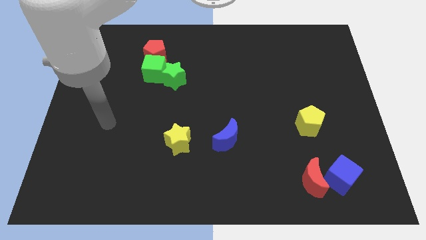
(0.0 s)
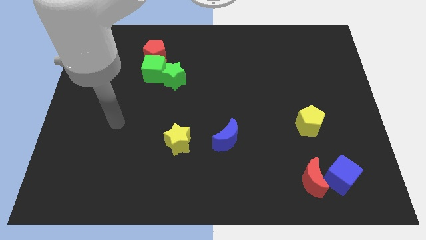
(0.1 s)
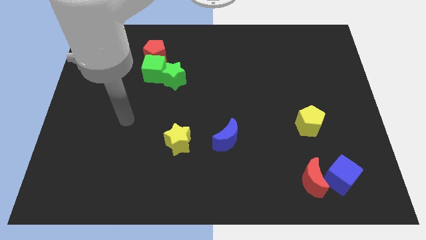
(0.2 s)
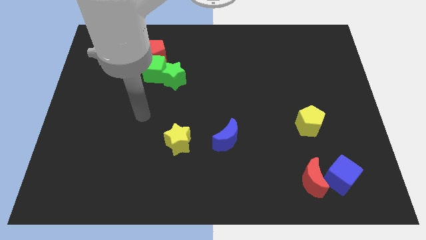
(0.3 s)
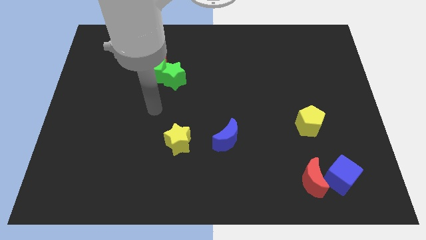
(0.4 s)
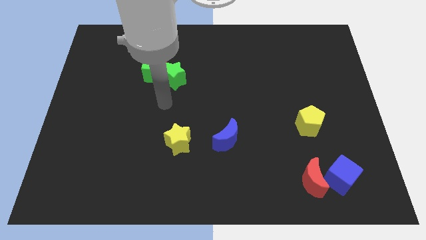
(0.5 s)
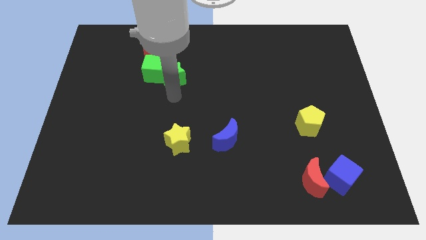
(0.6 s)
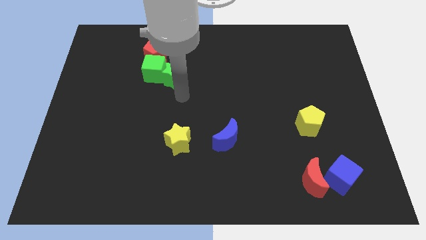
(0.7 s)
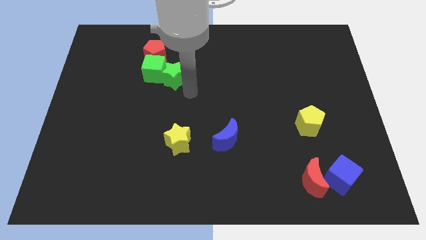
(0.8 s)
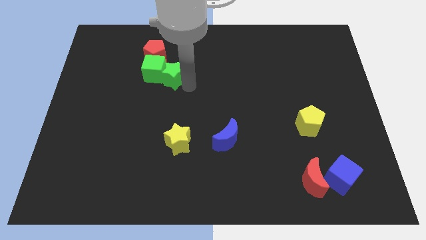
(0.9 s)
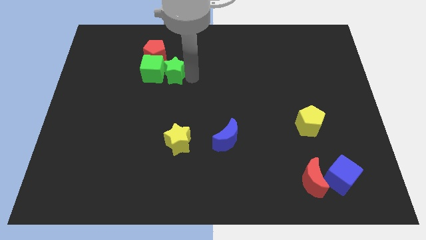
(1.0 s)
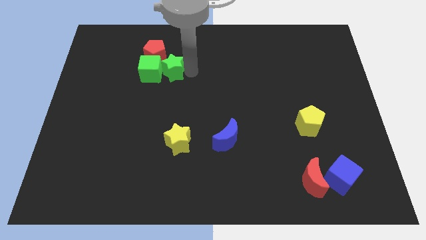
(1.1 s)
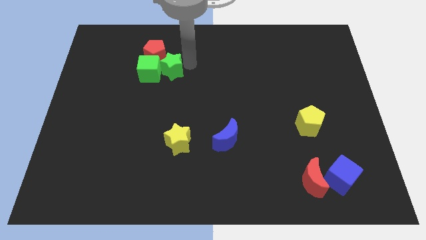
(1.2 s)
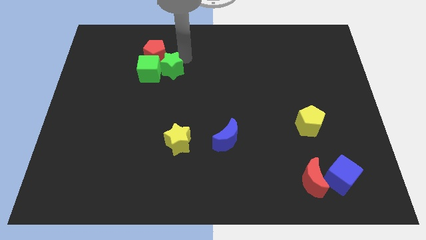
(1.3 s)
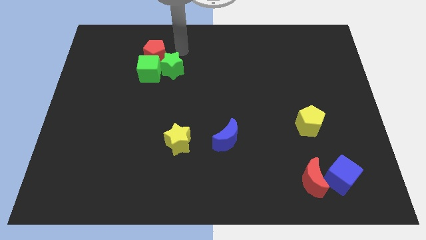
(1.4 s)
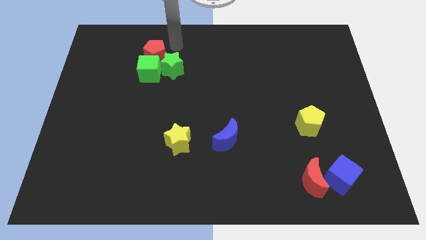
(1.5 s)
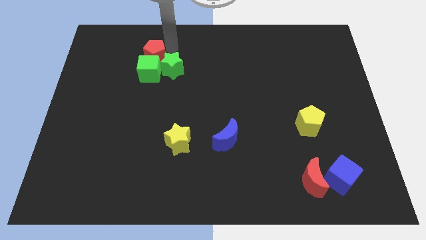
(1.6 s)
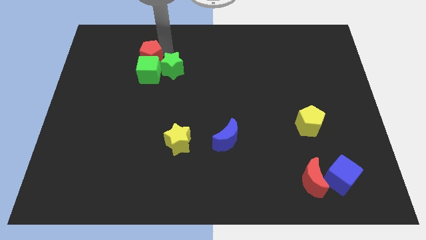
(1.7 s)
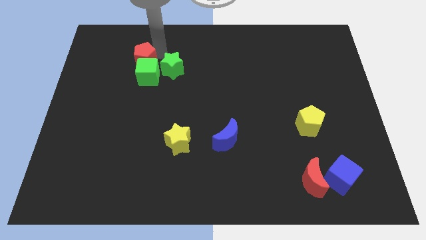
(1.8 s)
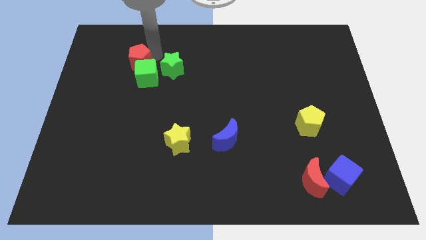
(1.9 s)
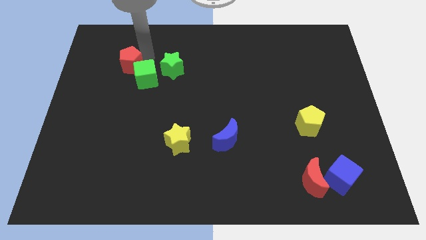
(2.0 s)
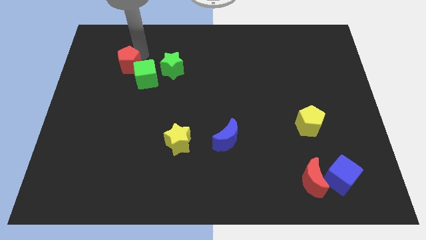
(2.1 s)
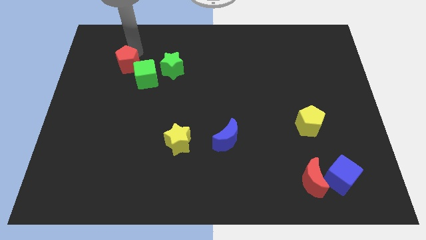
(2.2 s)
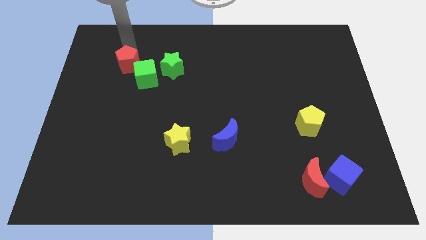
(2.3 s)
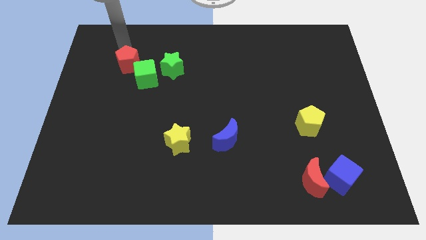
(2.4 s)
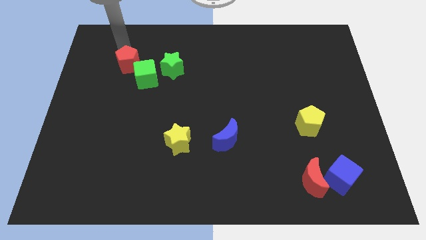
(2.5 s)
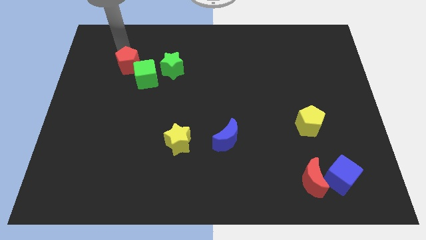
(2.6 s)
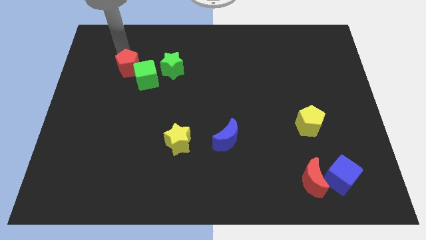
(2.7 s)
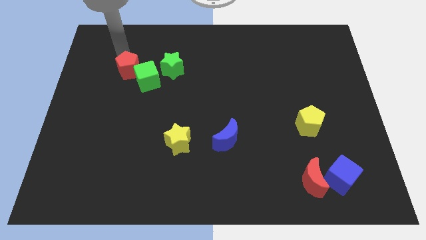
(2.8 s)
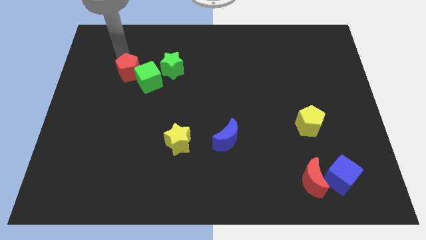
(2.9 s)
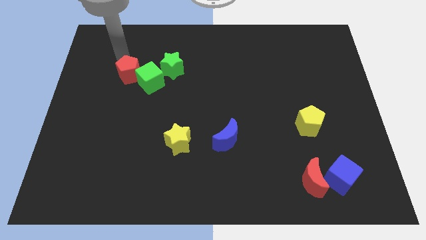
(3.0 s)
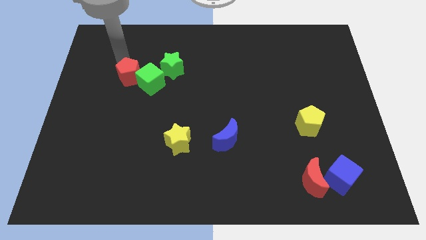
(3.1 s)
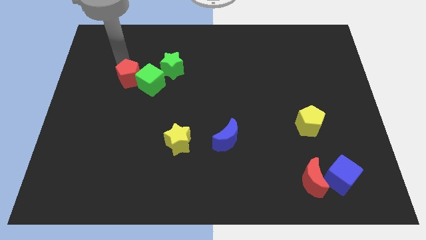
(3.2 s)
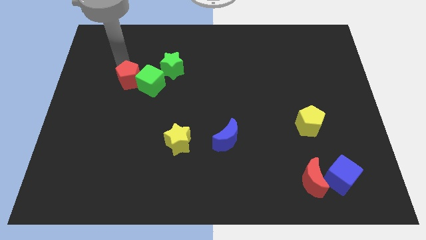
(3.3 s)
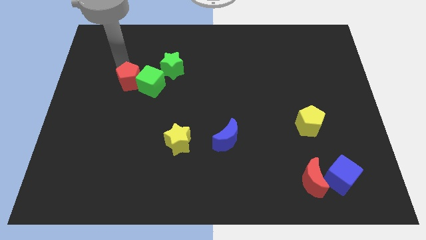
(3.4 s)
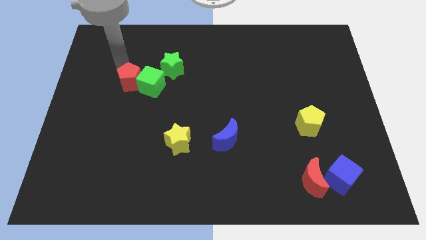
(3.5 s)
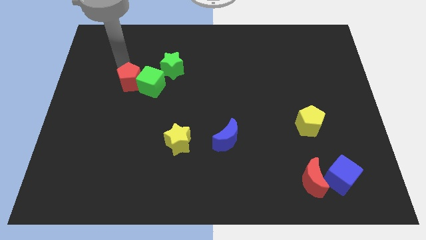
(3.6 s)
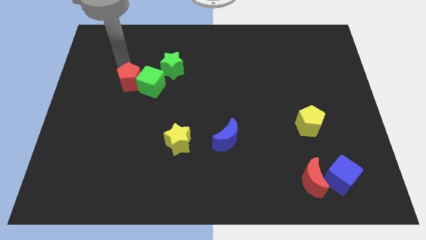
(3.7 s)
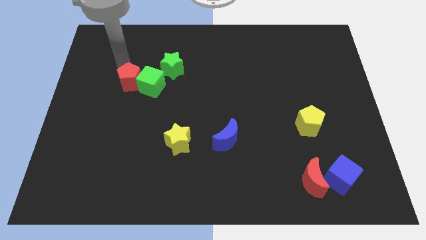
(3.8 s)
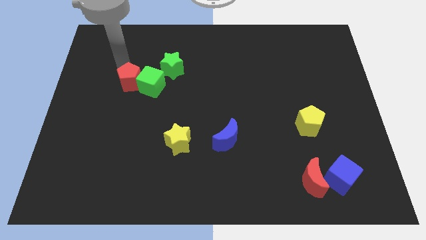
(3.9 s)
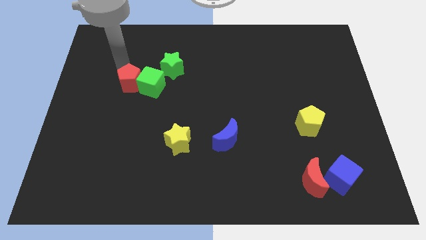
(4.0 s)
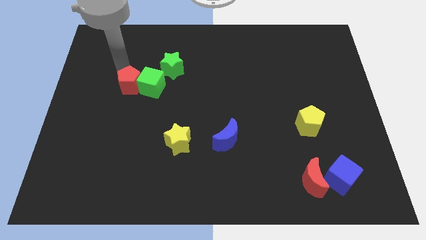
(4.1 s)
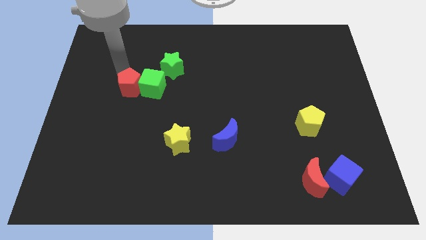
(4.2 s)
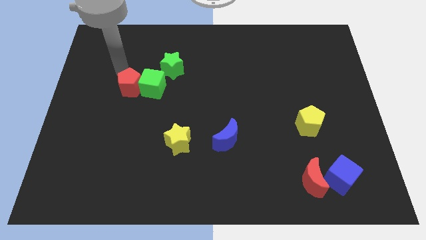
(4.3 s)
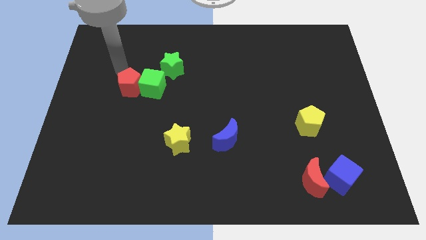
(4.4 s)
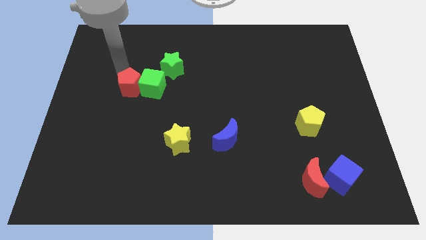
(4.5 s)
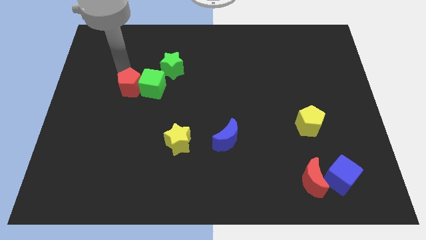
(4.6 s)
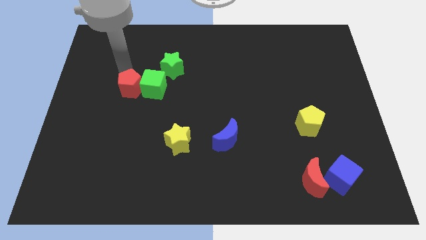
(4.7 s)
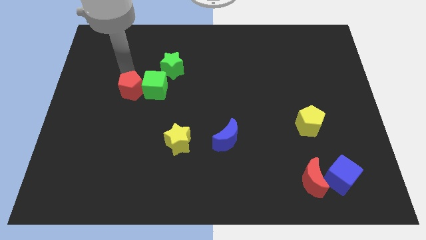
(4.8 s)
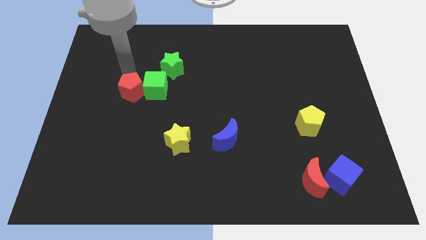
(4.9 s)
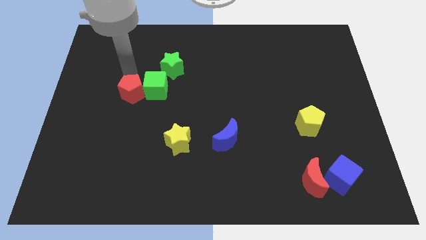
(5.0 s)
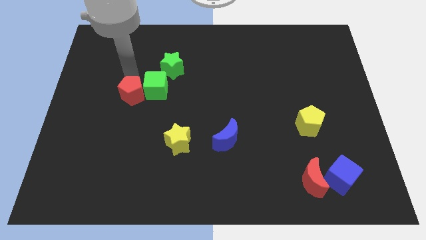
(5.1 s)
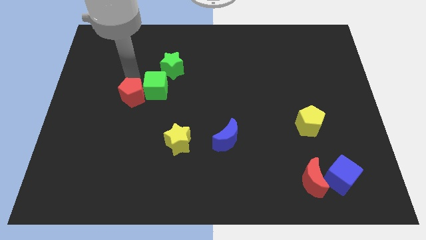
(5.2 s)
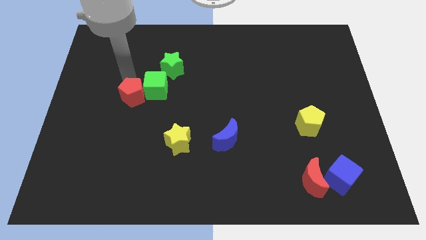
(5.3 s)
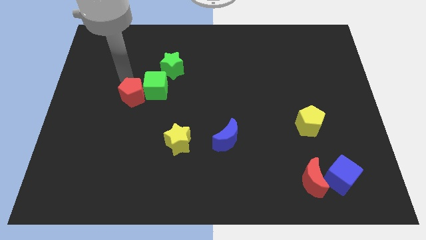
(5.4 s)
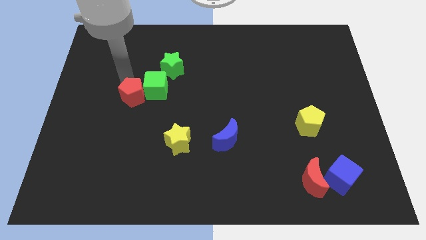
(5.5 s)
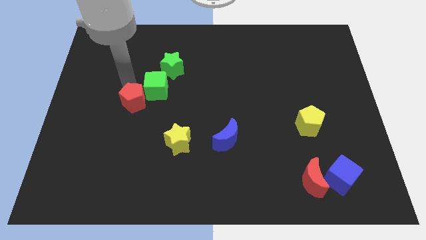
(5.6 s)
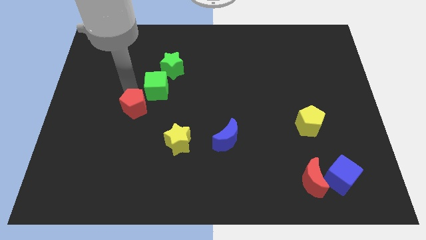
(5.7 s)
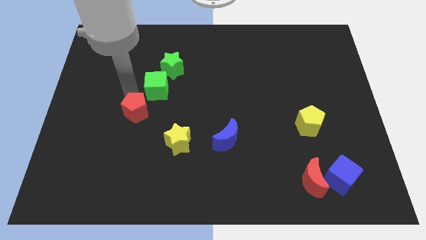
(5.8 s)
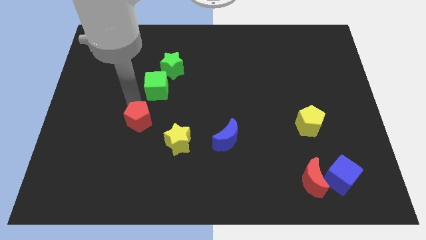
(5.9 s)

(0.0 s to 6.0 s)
move the red pentagon down

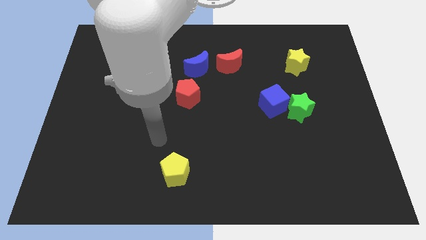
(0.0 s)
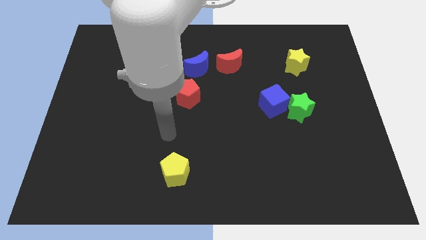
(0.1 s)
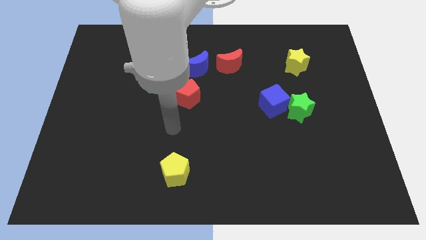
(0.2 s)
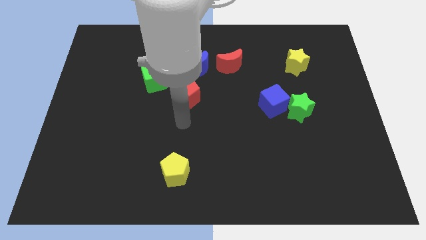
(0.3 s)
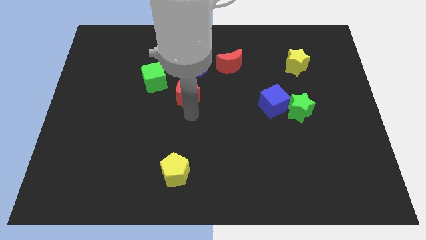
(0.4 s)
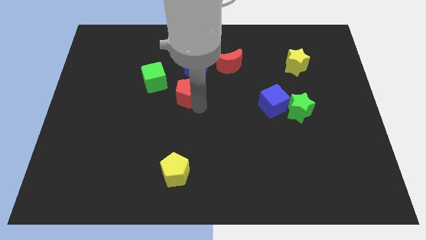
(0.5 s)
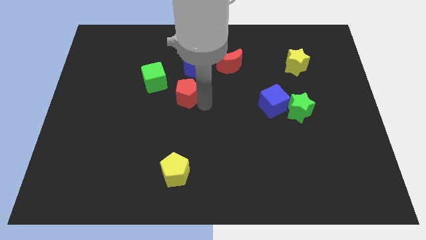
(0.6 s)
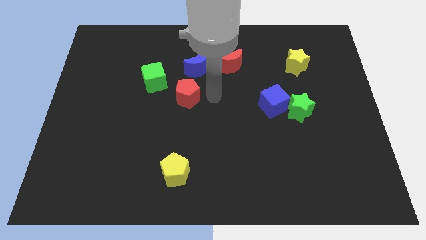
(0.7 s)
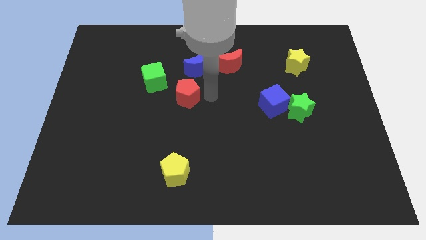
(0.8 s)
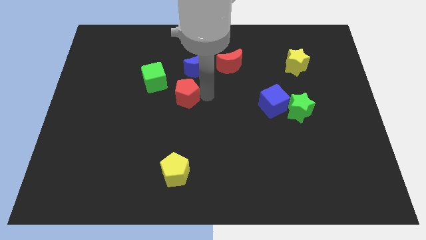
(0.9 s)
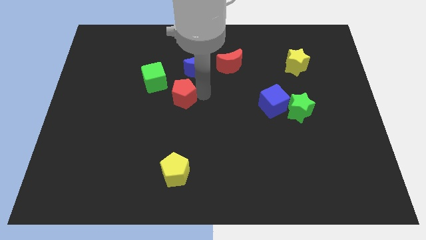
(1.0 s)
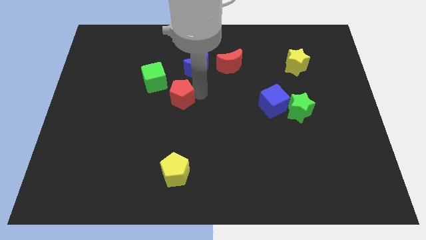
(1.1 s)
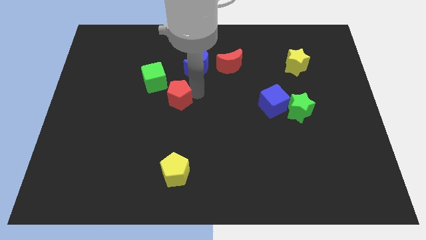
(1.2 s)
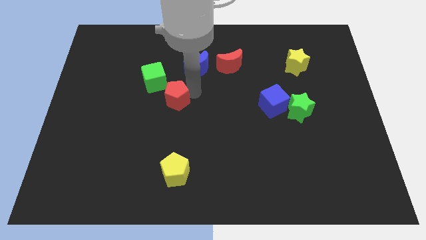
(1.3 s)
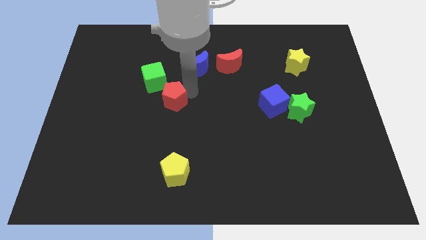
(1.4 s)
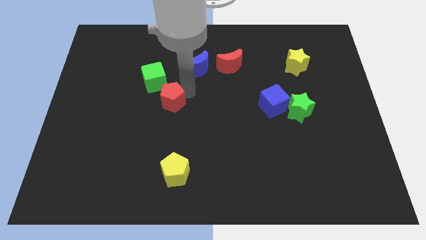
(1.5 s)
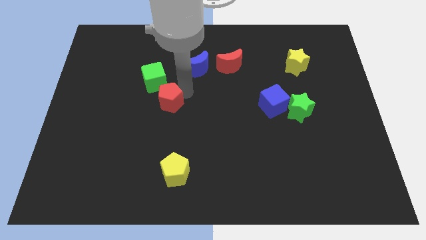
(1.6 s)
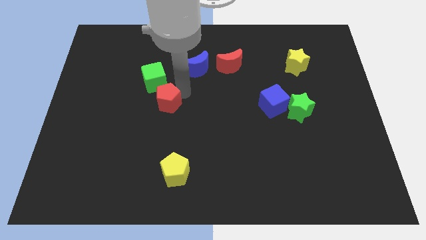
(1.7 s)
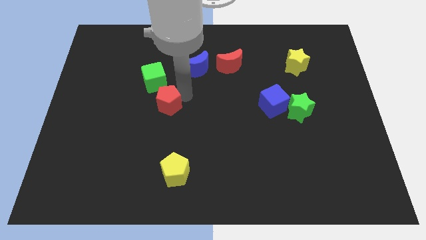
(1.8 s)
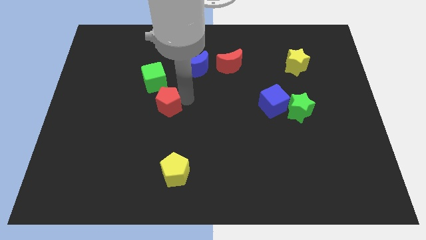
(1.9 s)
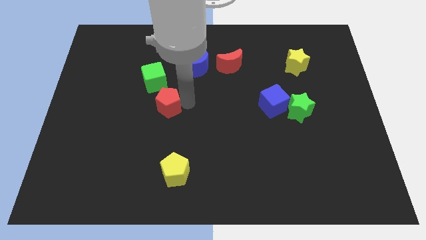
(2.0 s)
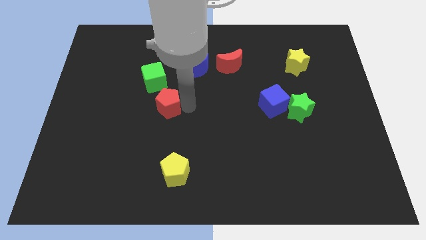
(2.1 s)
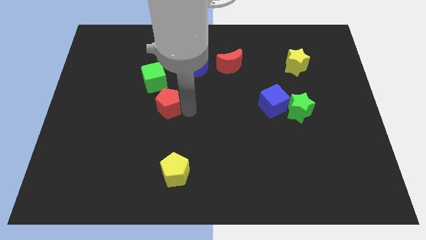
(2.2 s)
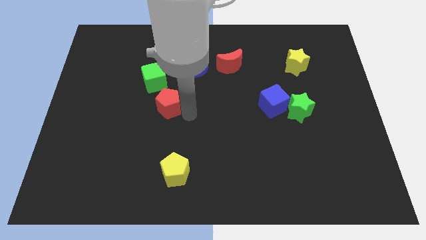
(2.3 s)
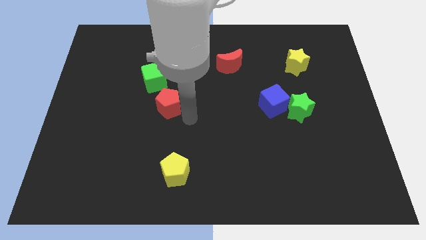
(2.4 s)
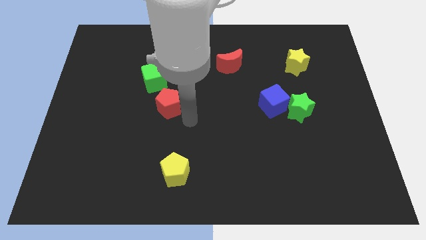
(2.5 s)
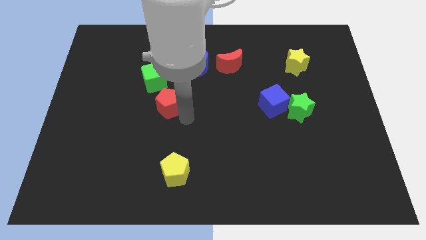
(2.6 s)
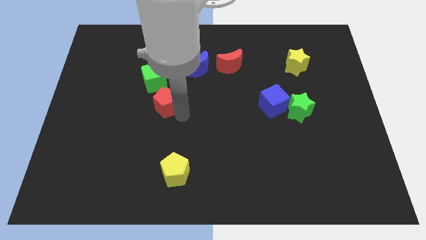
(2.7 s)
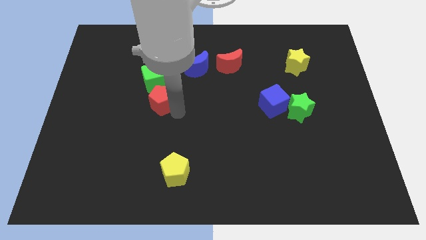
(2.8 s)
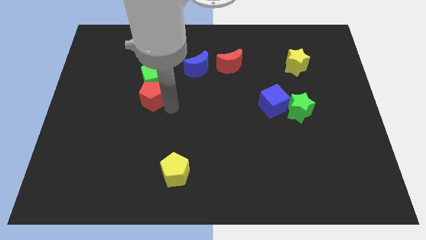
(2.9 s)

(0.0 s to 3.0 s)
push the red pentagon to the left somewhat
